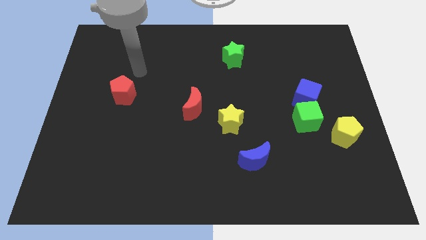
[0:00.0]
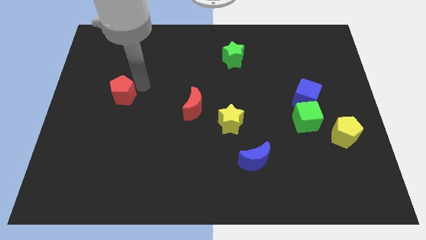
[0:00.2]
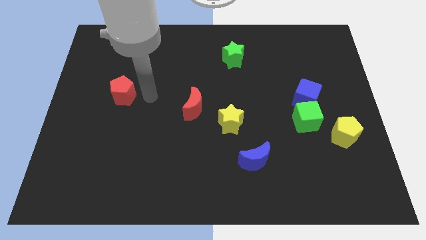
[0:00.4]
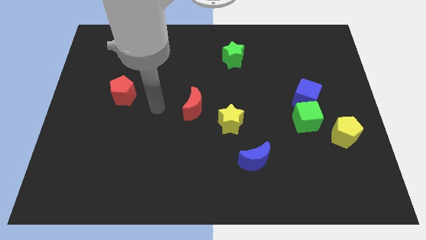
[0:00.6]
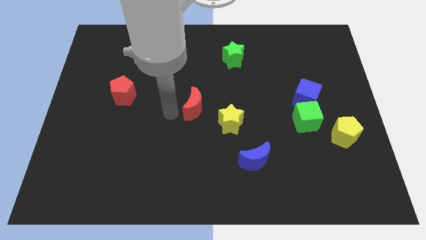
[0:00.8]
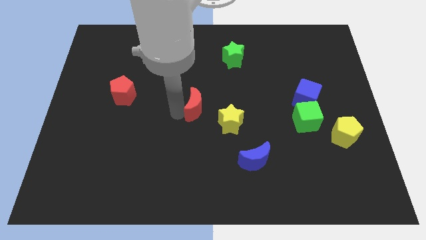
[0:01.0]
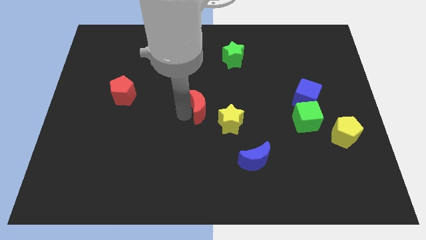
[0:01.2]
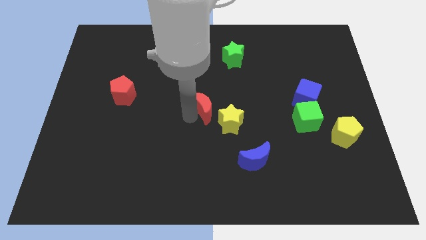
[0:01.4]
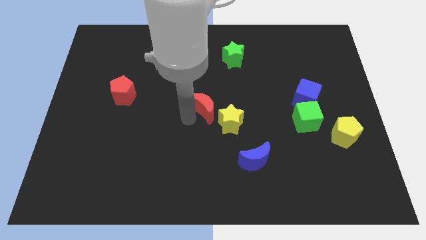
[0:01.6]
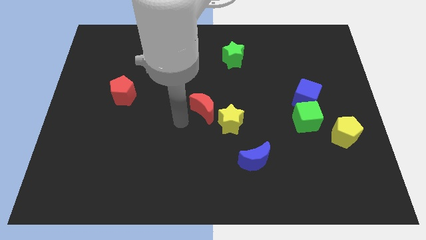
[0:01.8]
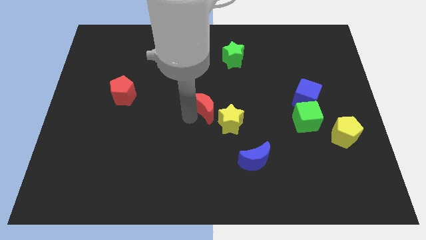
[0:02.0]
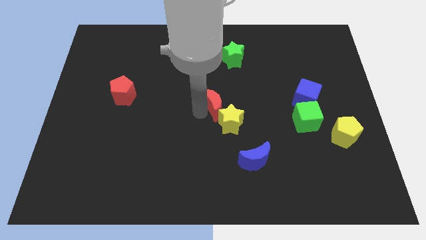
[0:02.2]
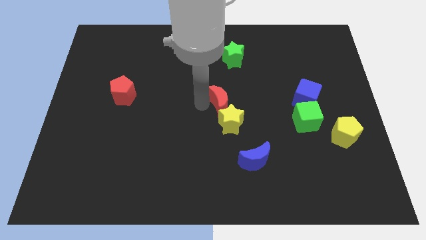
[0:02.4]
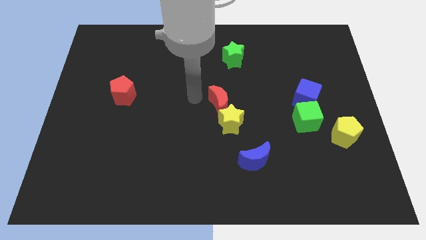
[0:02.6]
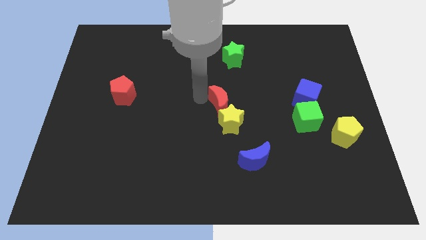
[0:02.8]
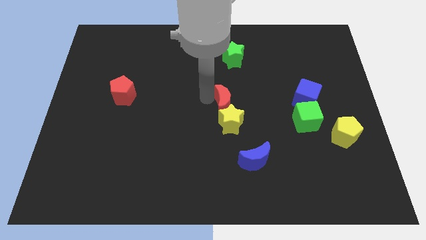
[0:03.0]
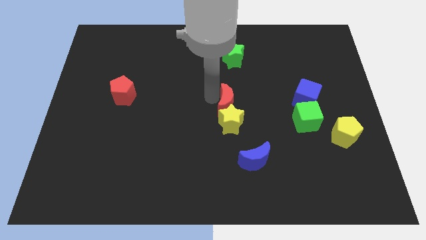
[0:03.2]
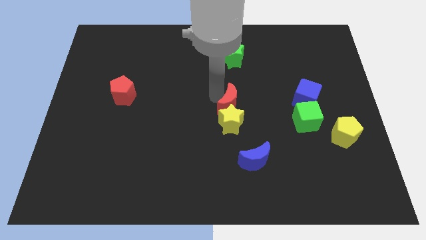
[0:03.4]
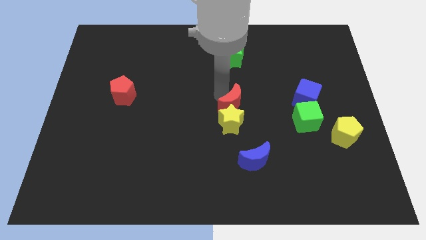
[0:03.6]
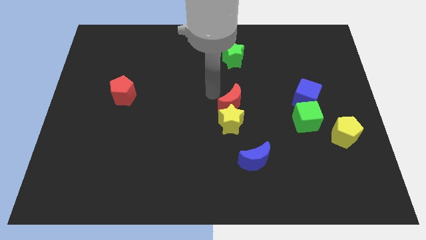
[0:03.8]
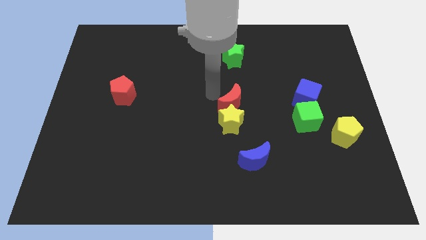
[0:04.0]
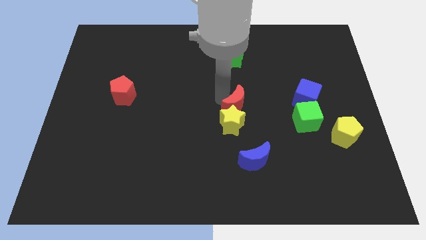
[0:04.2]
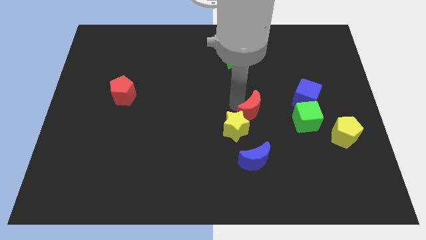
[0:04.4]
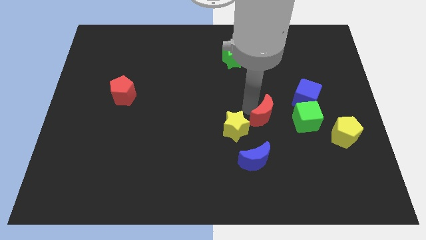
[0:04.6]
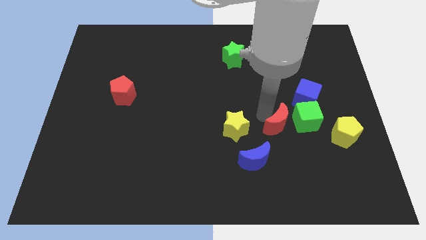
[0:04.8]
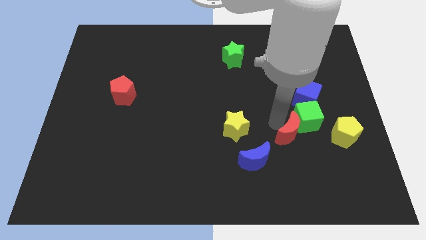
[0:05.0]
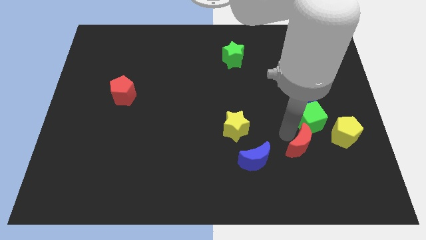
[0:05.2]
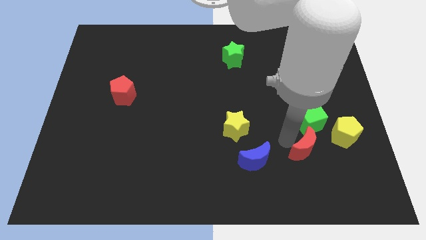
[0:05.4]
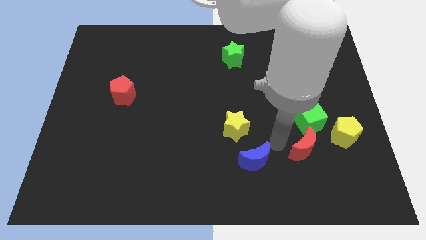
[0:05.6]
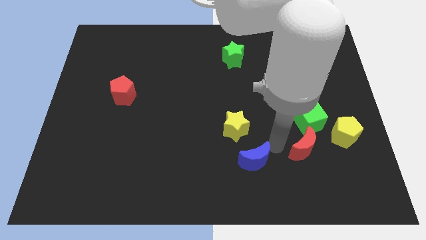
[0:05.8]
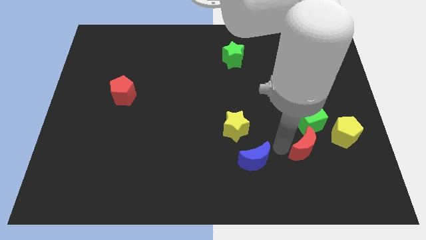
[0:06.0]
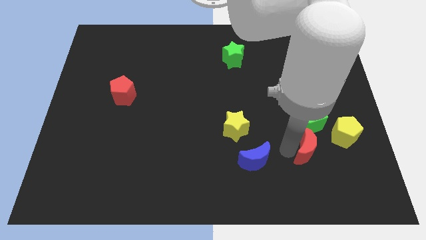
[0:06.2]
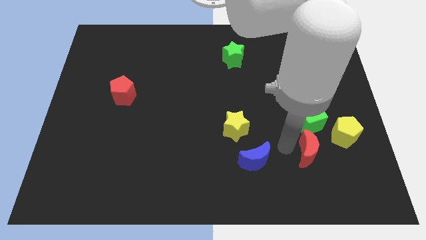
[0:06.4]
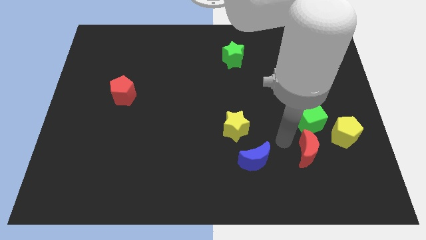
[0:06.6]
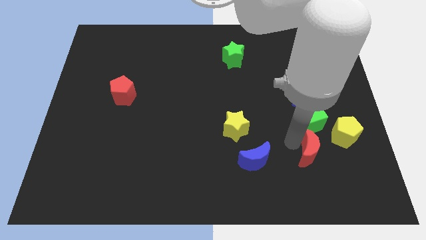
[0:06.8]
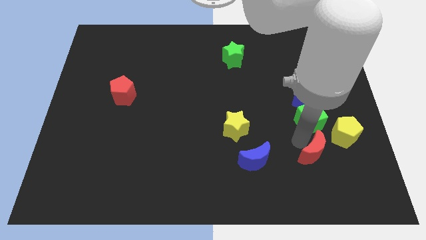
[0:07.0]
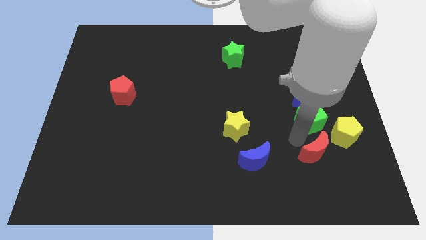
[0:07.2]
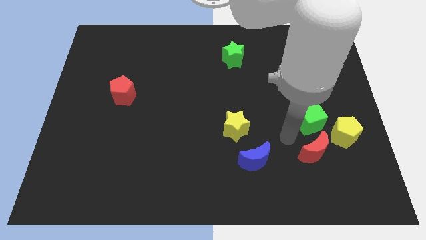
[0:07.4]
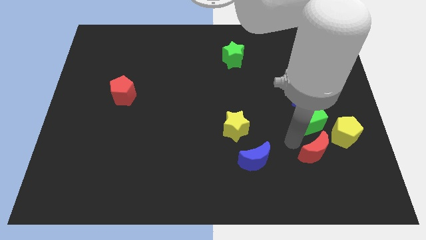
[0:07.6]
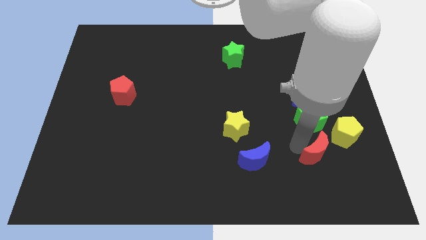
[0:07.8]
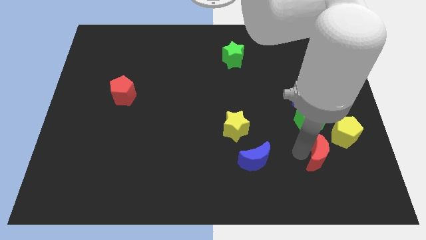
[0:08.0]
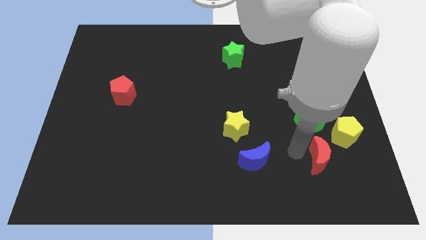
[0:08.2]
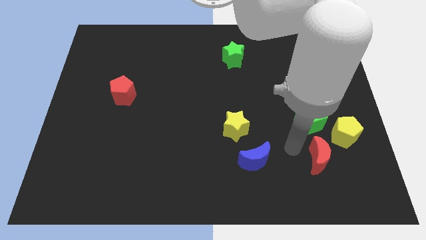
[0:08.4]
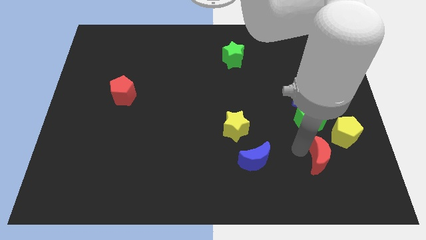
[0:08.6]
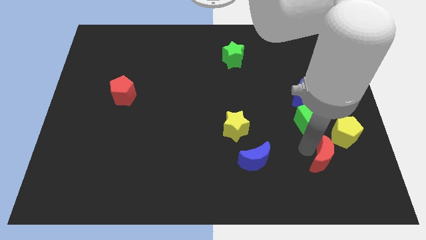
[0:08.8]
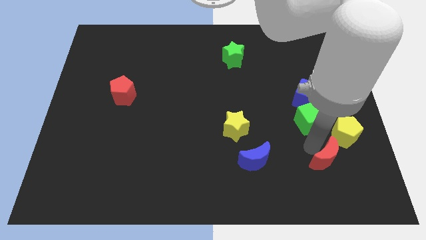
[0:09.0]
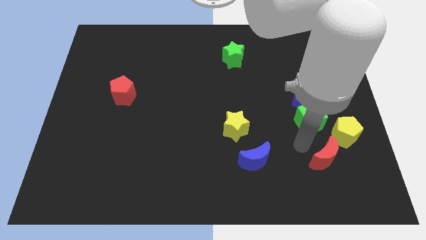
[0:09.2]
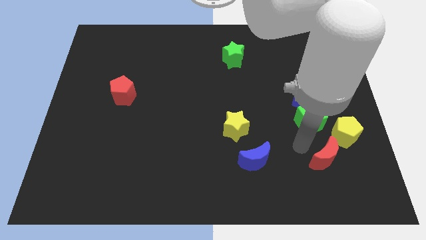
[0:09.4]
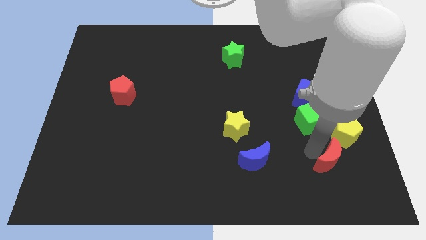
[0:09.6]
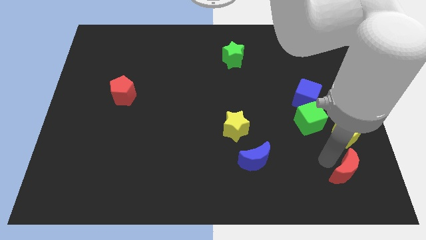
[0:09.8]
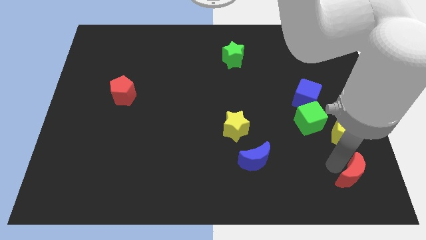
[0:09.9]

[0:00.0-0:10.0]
put the red moon to the bottom right of the board
